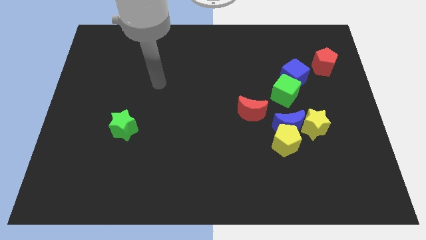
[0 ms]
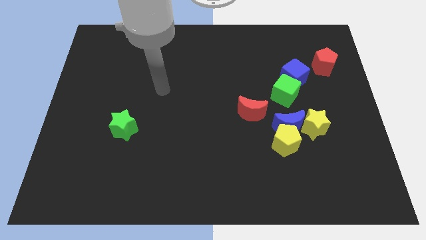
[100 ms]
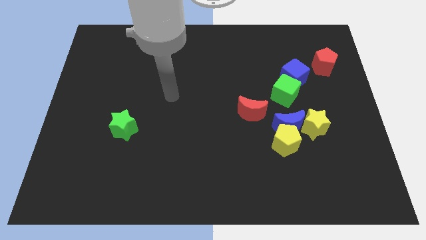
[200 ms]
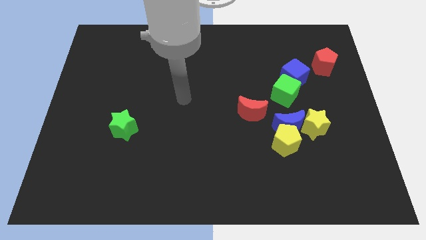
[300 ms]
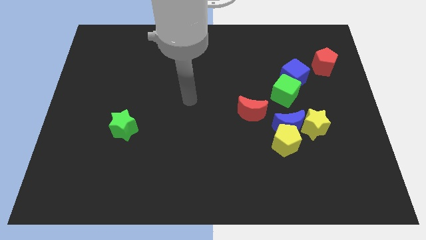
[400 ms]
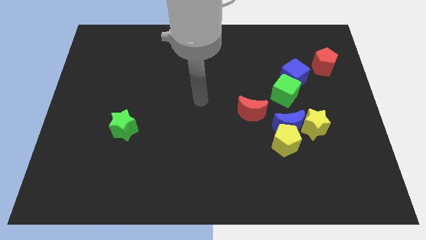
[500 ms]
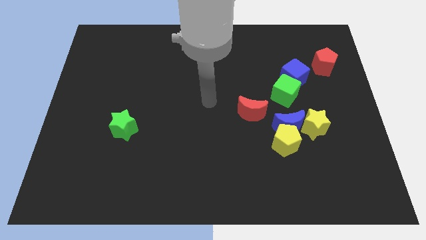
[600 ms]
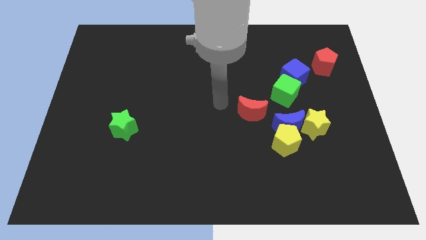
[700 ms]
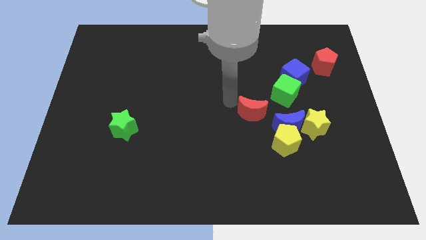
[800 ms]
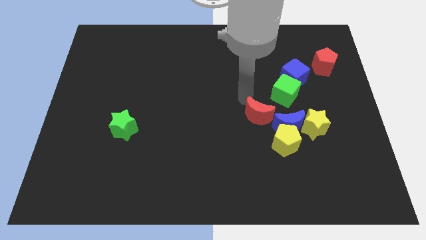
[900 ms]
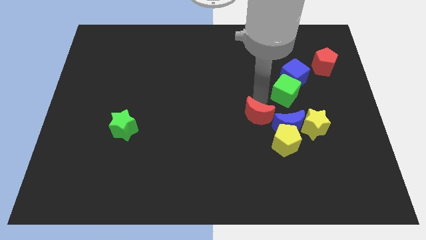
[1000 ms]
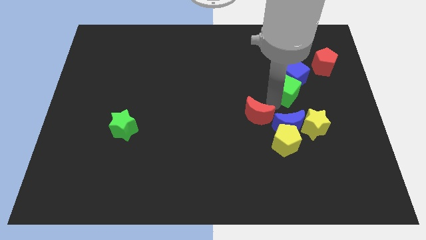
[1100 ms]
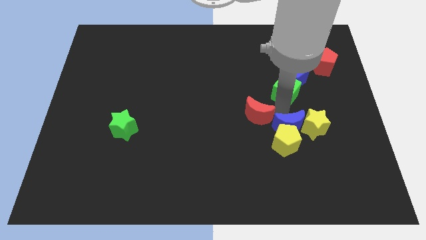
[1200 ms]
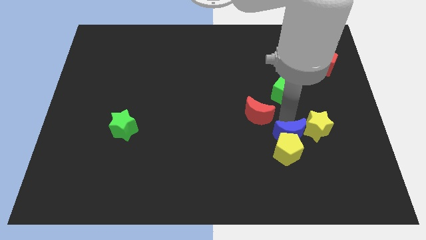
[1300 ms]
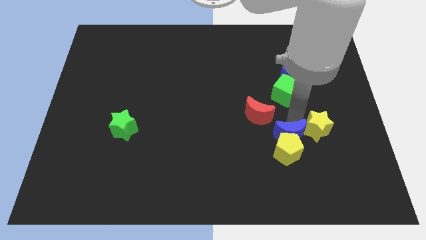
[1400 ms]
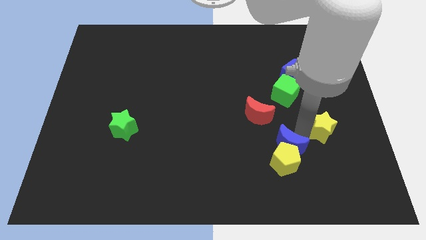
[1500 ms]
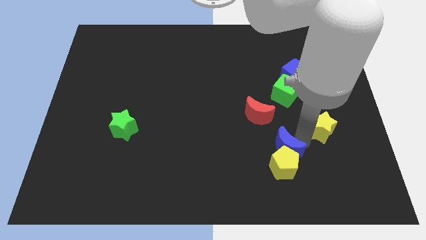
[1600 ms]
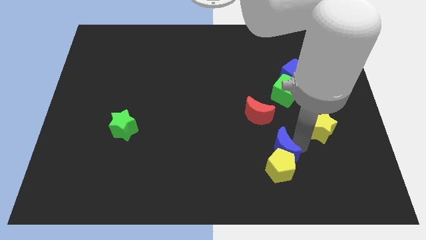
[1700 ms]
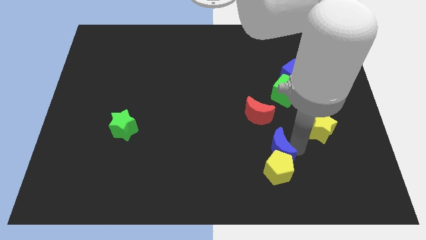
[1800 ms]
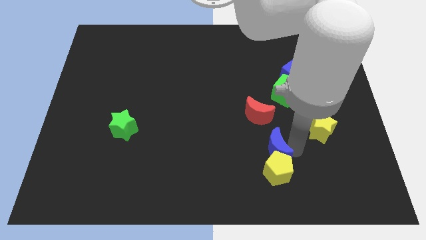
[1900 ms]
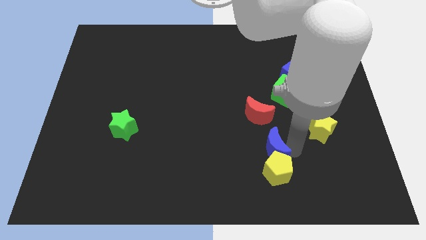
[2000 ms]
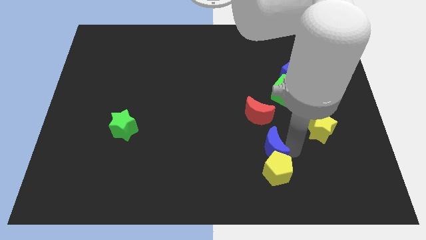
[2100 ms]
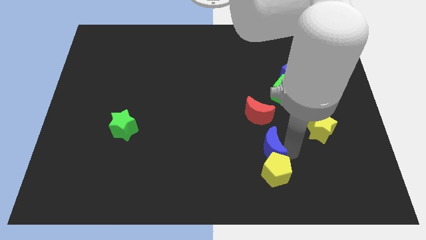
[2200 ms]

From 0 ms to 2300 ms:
separate the yellow pentagon from the blue moon and yellow star

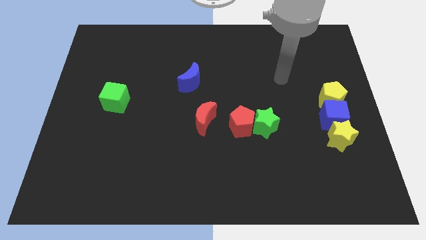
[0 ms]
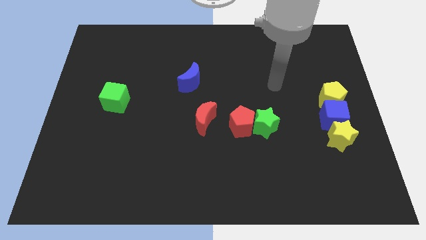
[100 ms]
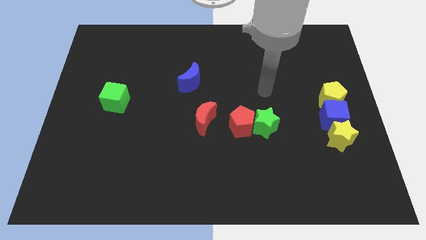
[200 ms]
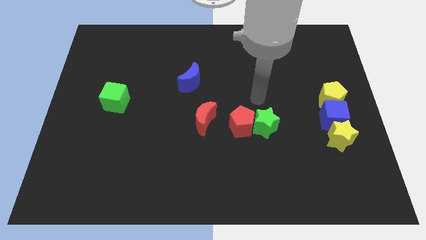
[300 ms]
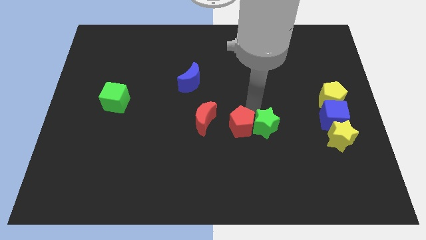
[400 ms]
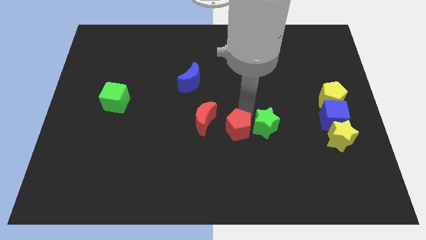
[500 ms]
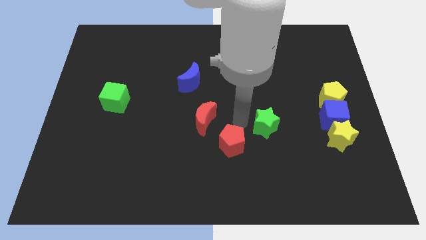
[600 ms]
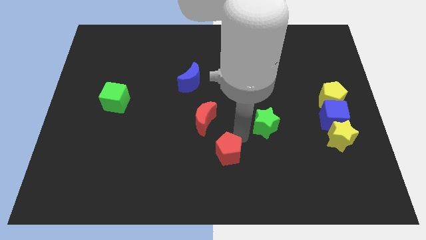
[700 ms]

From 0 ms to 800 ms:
separate the green star from the red pentagon

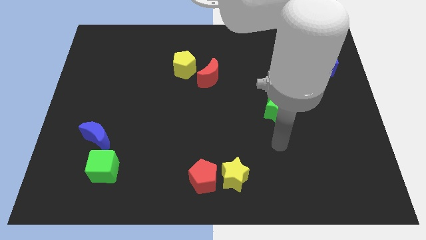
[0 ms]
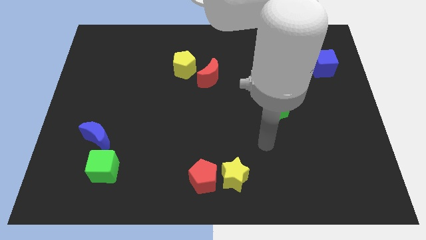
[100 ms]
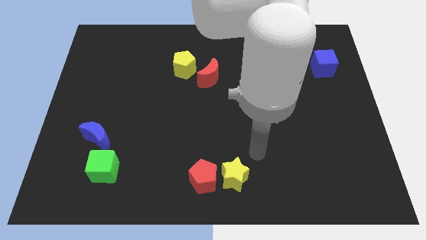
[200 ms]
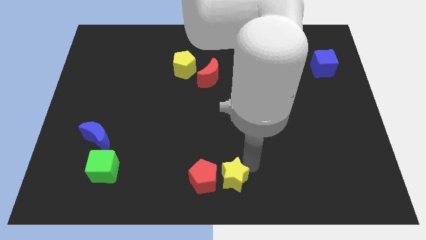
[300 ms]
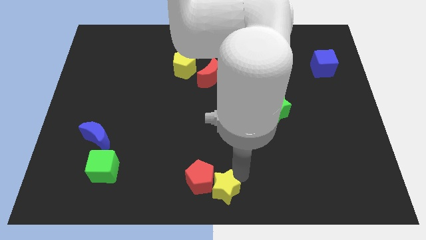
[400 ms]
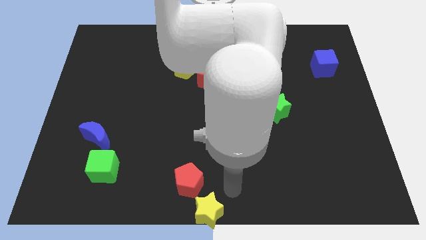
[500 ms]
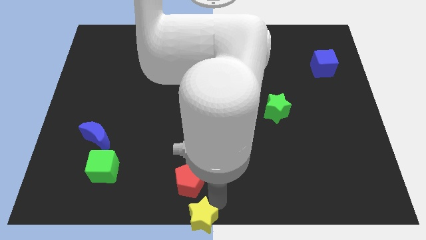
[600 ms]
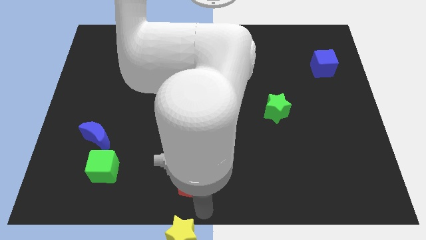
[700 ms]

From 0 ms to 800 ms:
move the red pentagon away from the yellow star

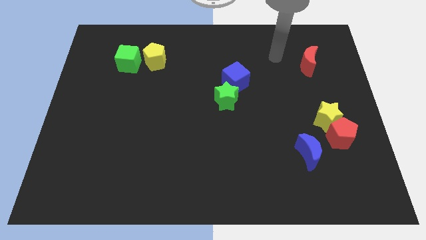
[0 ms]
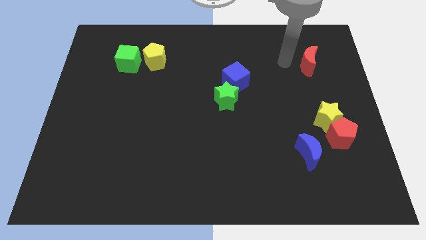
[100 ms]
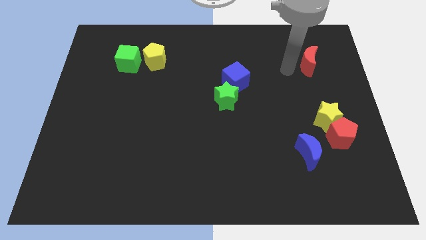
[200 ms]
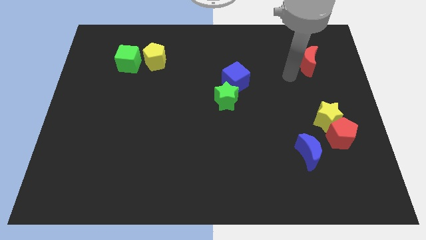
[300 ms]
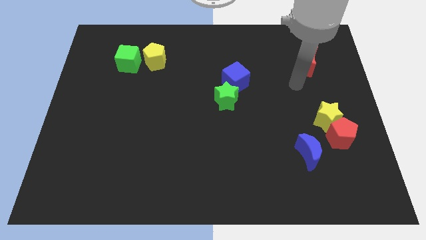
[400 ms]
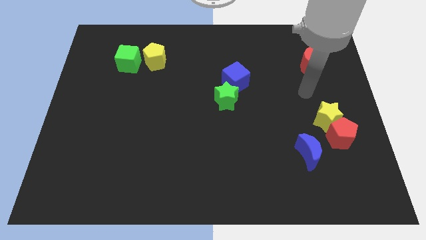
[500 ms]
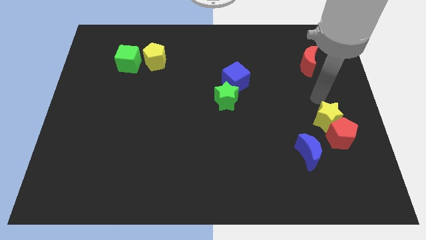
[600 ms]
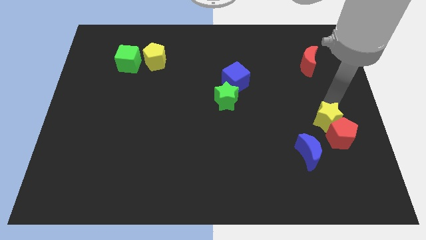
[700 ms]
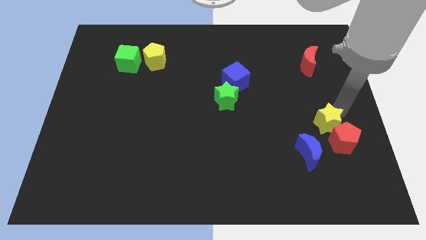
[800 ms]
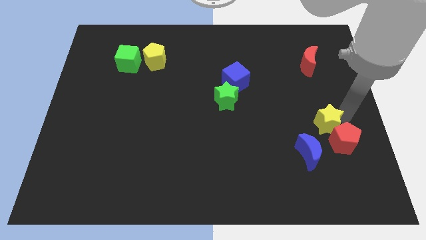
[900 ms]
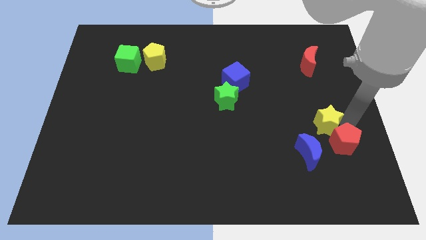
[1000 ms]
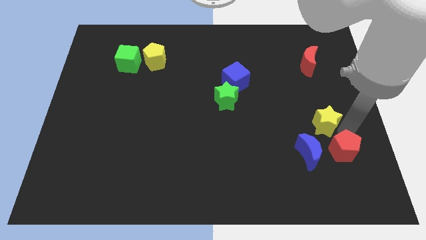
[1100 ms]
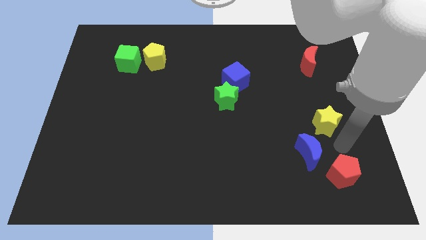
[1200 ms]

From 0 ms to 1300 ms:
separate the yellow star from the red pentagon

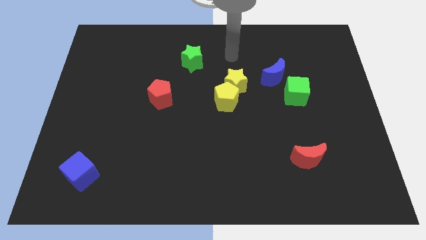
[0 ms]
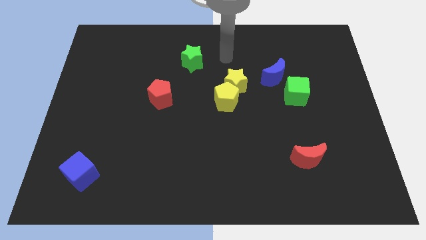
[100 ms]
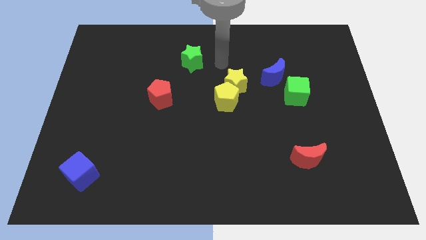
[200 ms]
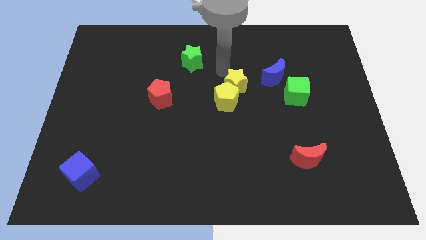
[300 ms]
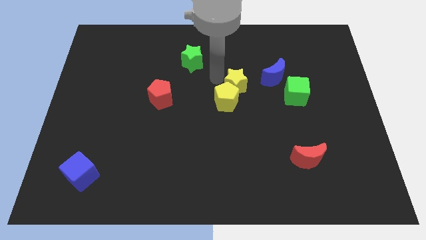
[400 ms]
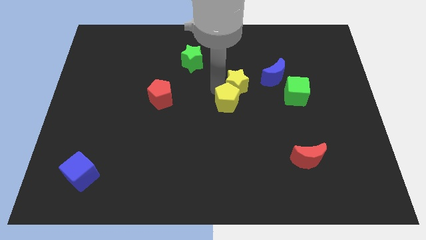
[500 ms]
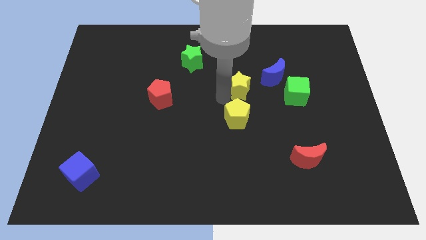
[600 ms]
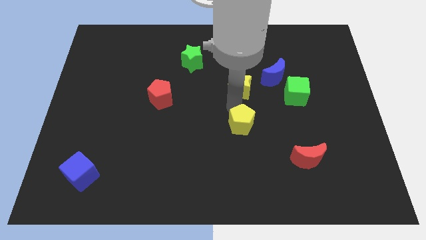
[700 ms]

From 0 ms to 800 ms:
move the yellow star away from the yellow pentagon

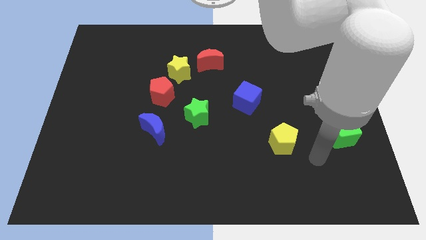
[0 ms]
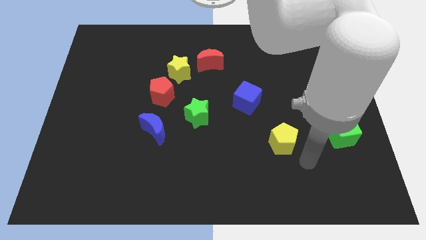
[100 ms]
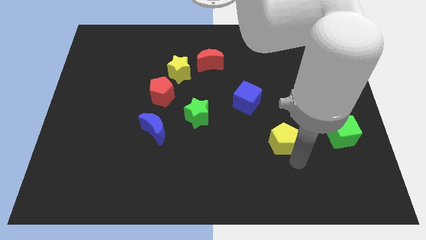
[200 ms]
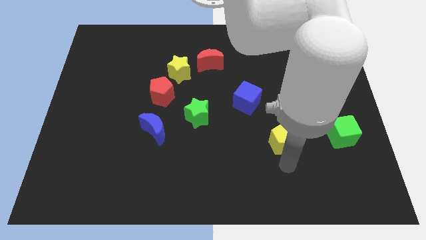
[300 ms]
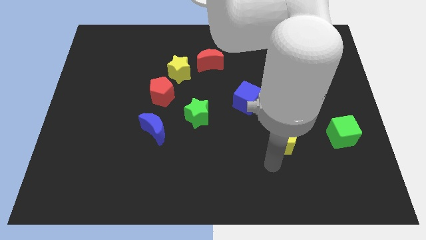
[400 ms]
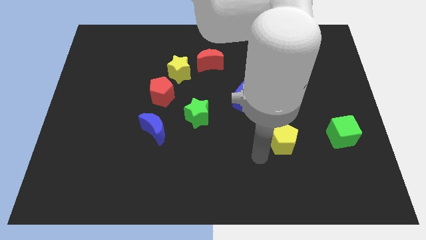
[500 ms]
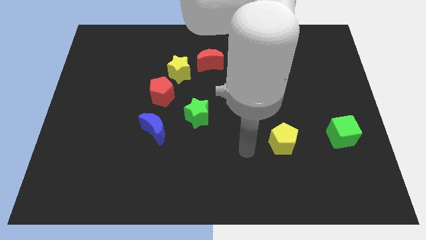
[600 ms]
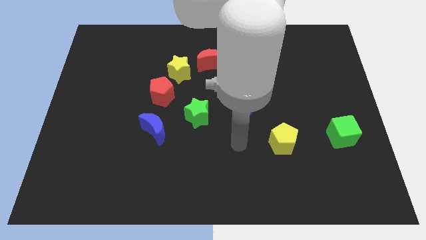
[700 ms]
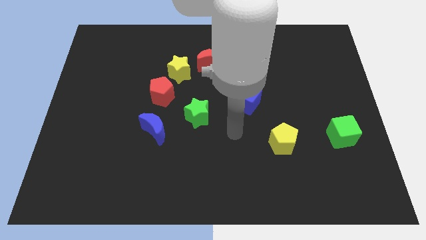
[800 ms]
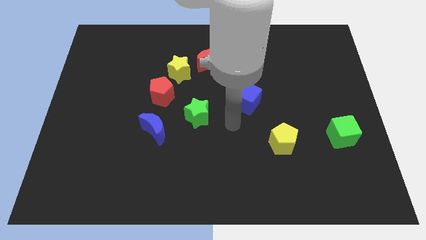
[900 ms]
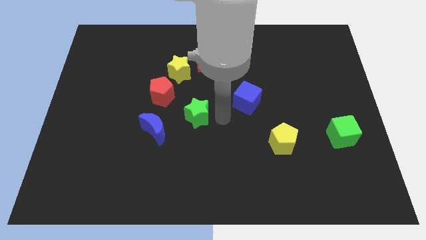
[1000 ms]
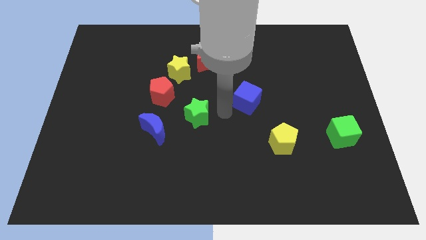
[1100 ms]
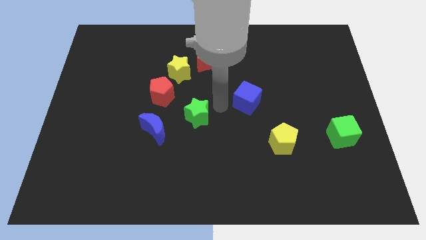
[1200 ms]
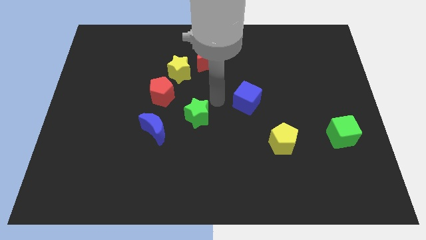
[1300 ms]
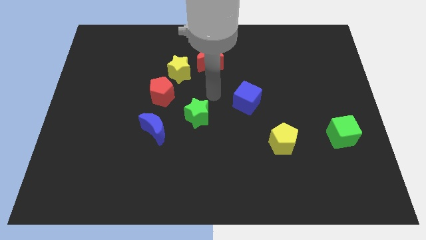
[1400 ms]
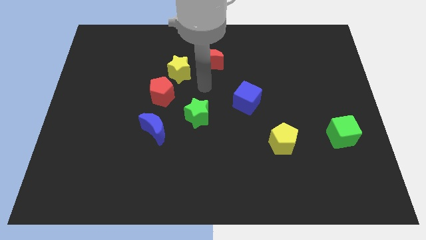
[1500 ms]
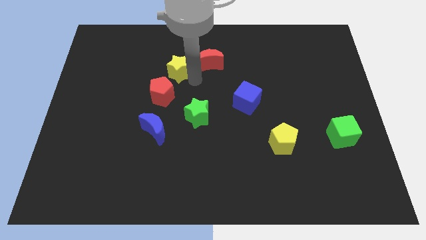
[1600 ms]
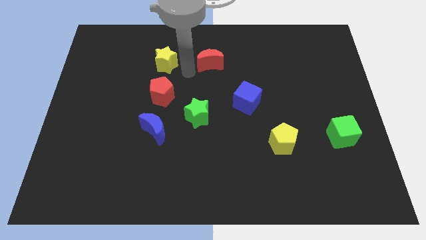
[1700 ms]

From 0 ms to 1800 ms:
separate the red moon from the yellow star

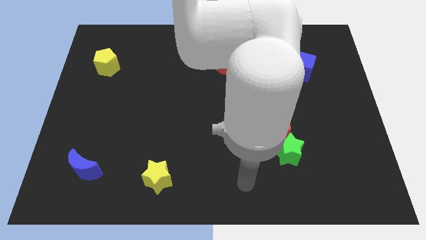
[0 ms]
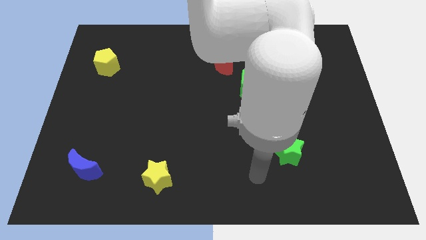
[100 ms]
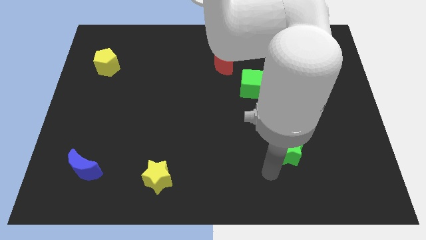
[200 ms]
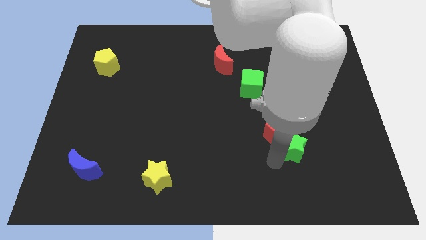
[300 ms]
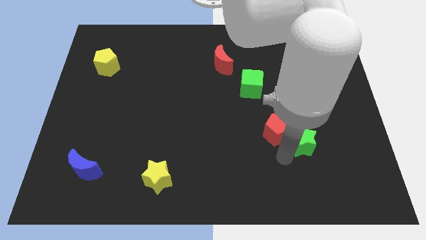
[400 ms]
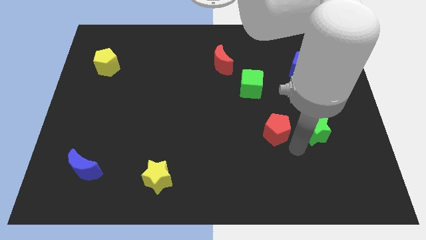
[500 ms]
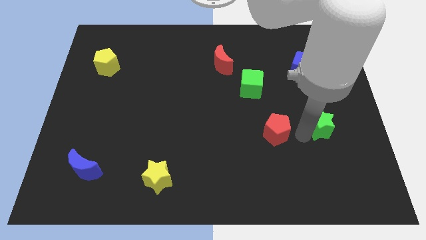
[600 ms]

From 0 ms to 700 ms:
move the red pentagon away from the green star

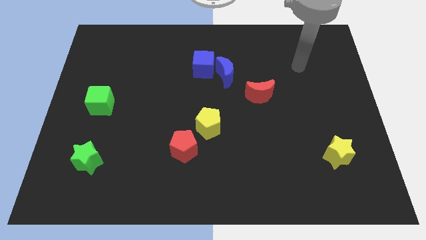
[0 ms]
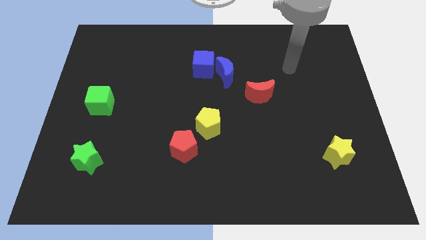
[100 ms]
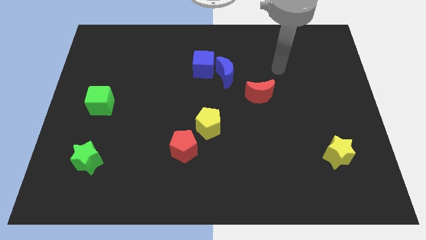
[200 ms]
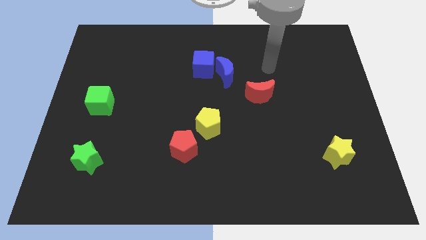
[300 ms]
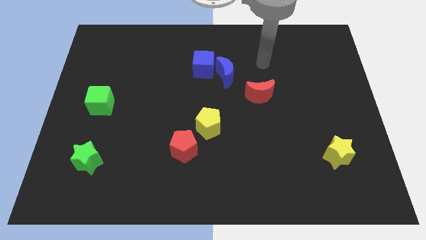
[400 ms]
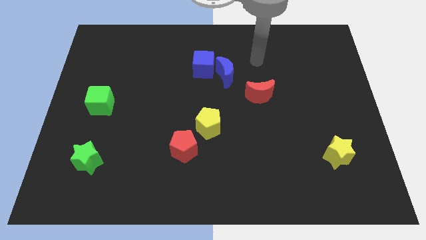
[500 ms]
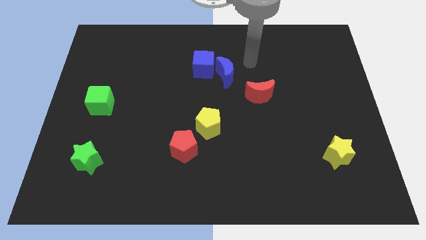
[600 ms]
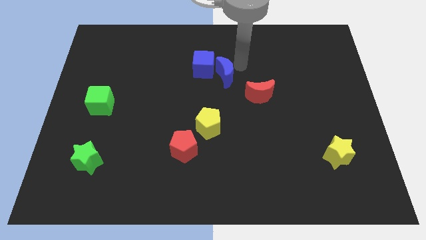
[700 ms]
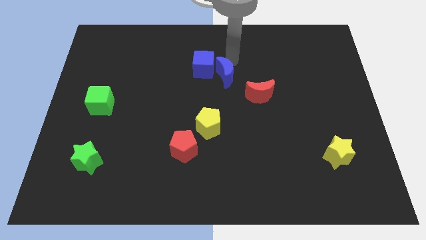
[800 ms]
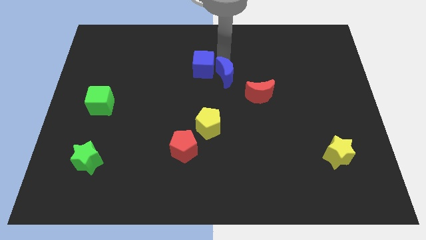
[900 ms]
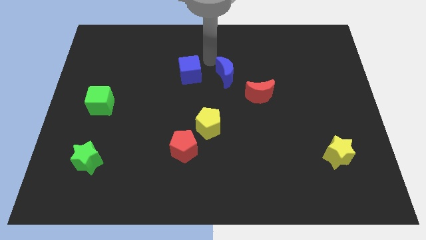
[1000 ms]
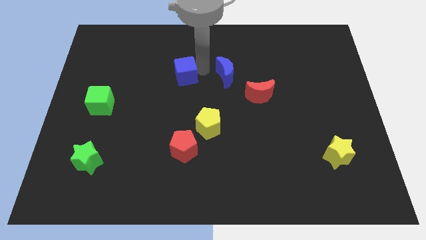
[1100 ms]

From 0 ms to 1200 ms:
separate the blue moon from the blue cube
